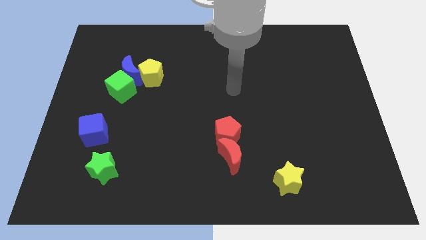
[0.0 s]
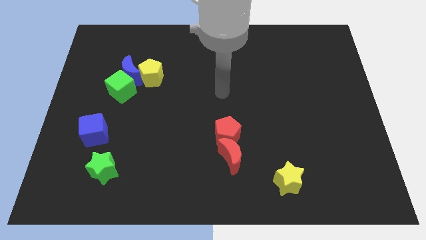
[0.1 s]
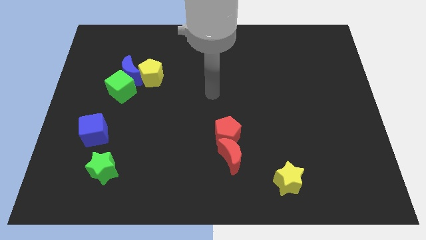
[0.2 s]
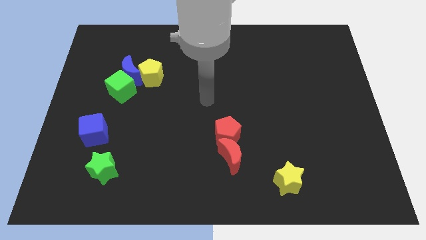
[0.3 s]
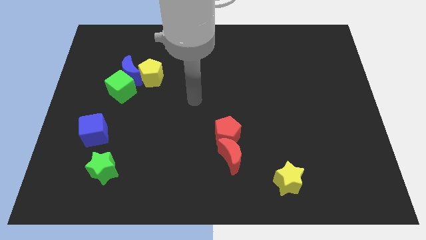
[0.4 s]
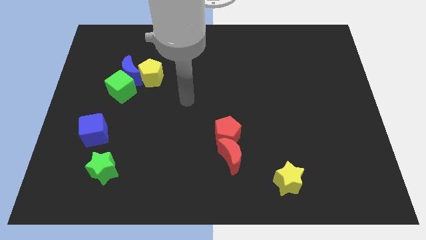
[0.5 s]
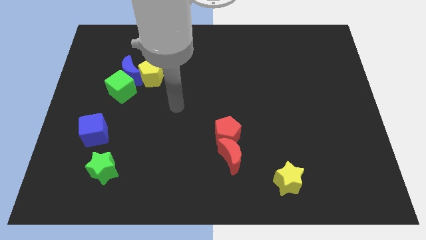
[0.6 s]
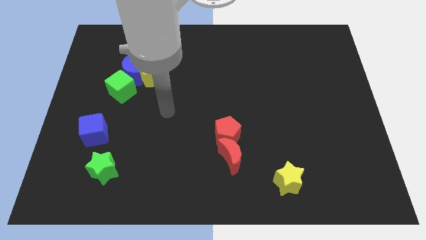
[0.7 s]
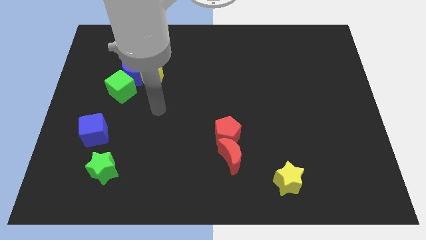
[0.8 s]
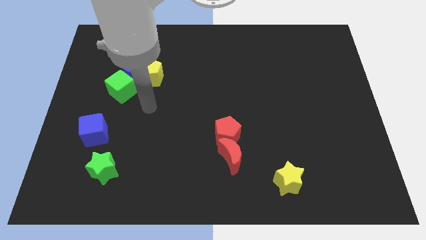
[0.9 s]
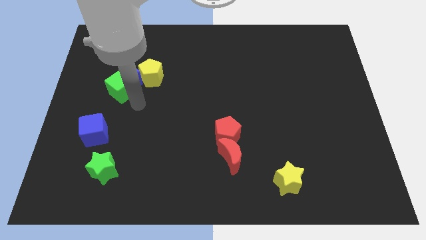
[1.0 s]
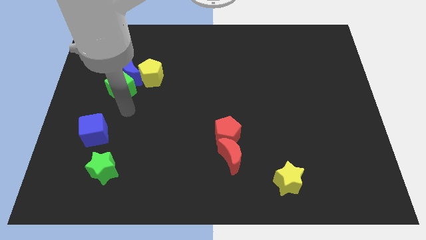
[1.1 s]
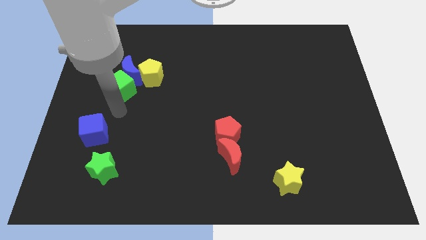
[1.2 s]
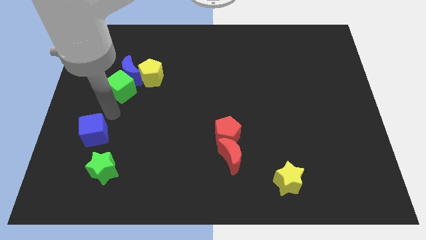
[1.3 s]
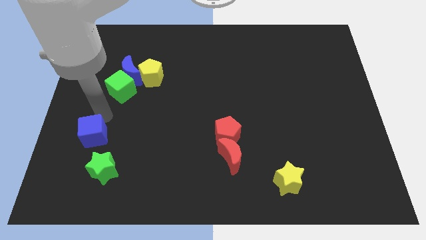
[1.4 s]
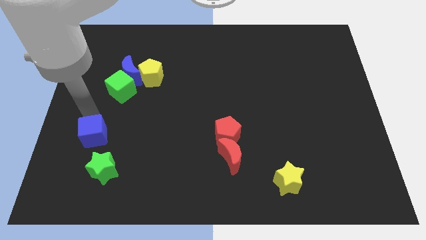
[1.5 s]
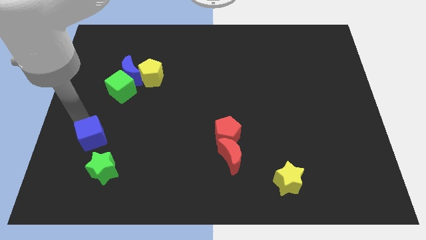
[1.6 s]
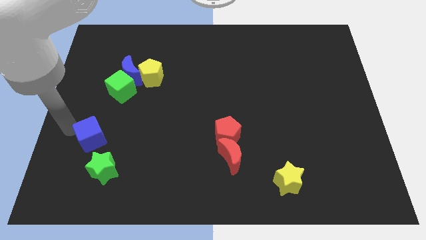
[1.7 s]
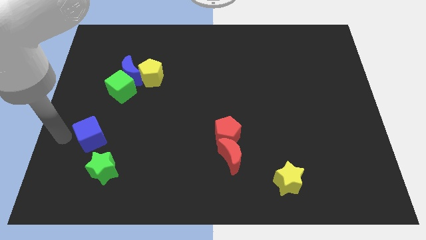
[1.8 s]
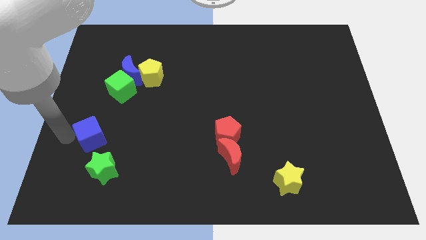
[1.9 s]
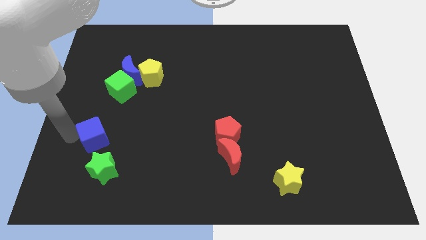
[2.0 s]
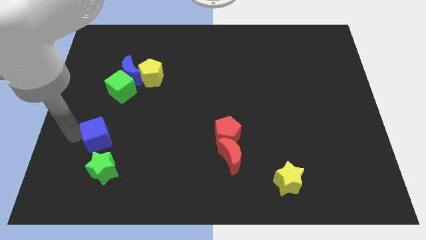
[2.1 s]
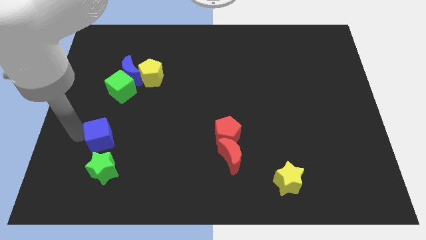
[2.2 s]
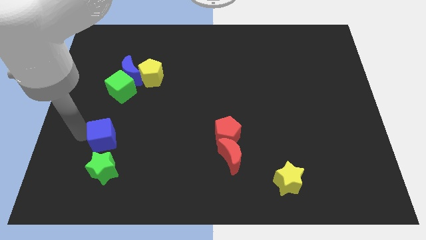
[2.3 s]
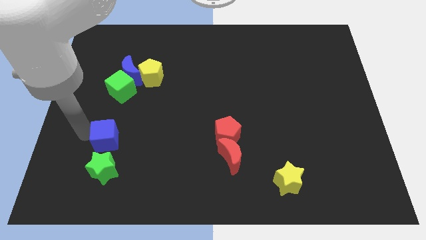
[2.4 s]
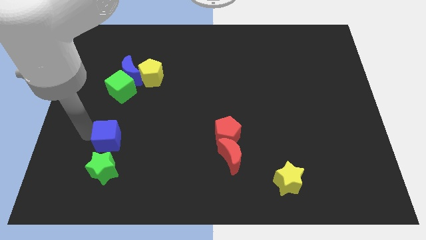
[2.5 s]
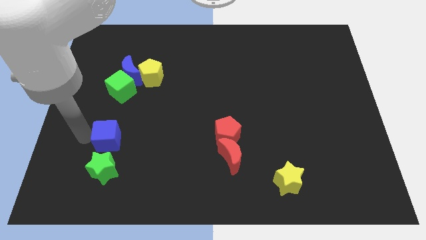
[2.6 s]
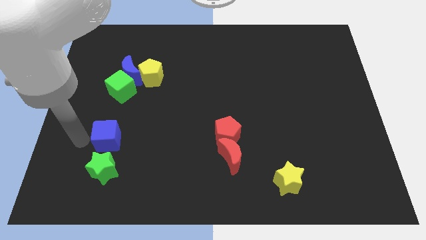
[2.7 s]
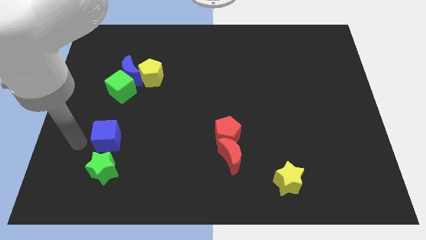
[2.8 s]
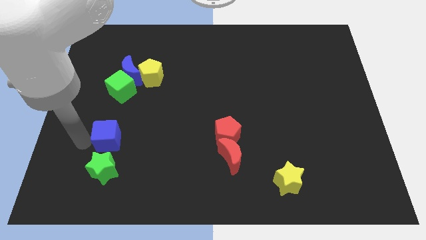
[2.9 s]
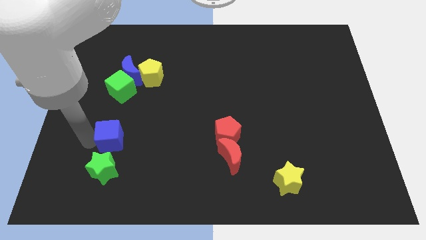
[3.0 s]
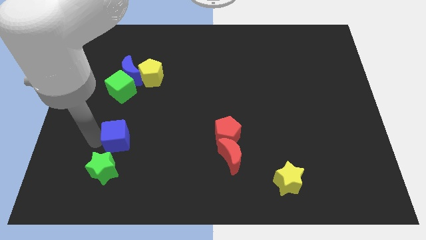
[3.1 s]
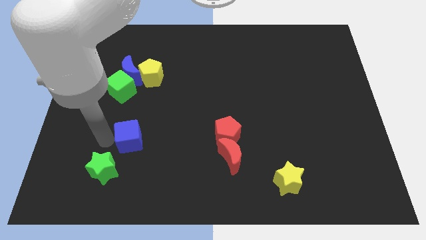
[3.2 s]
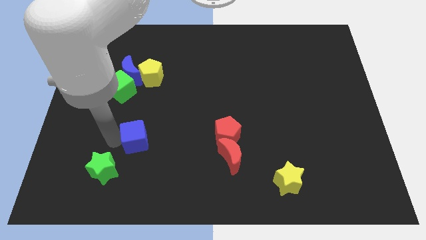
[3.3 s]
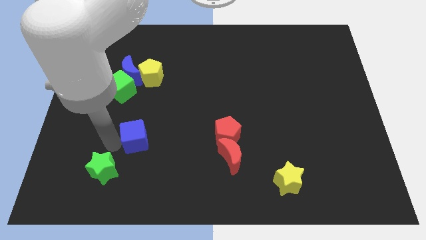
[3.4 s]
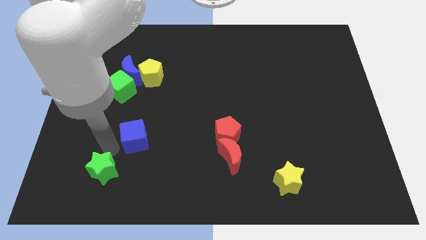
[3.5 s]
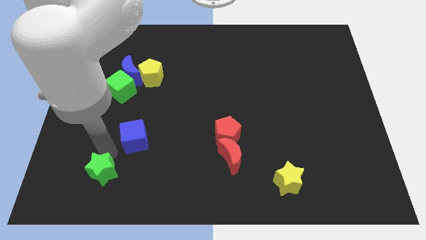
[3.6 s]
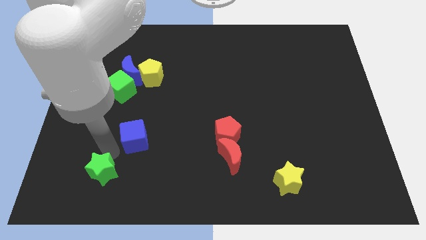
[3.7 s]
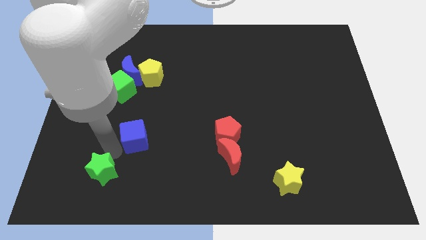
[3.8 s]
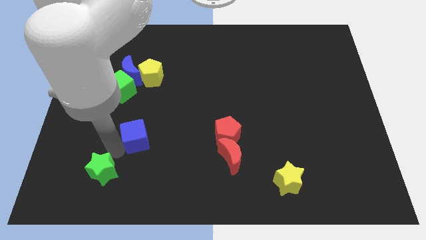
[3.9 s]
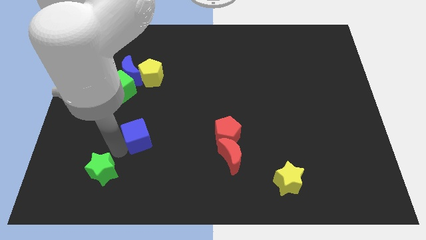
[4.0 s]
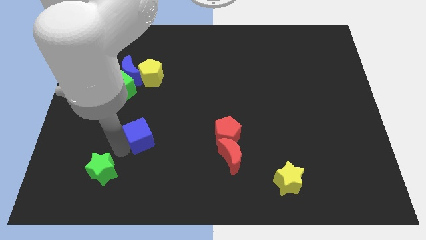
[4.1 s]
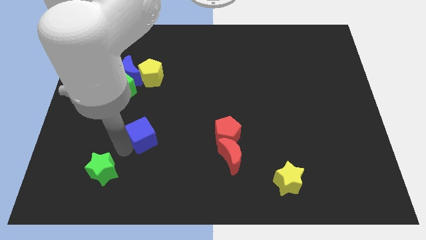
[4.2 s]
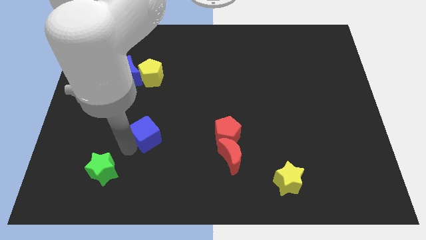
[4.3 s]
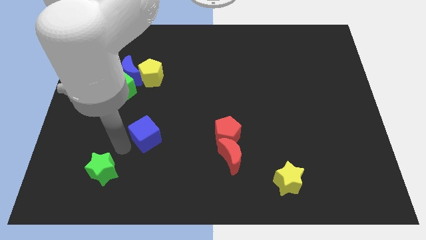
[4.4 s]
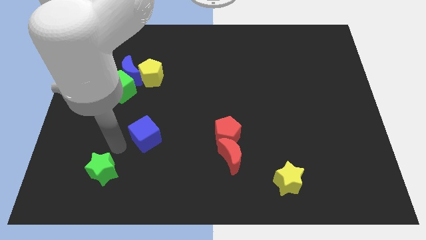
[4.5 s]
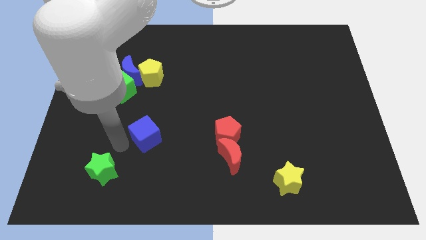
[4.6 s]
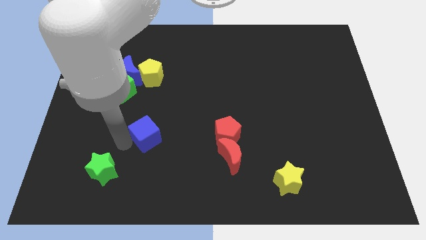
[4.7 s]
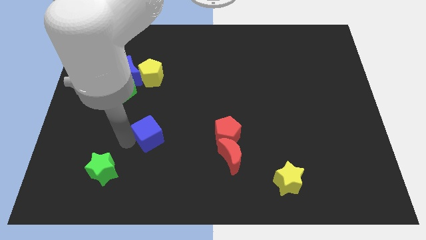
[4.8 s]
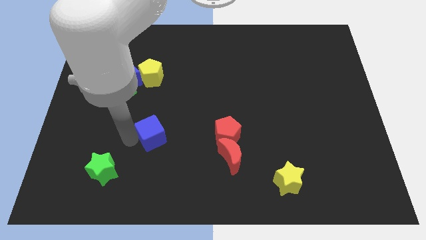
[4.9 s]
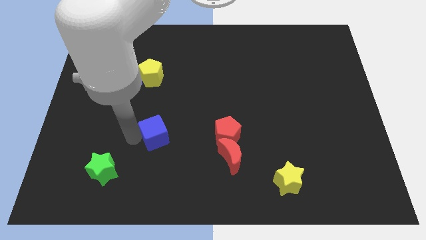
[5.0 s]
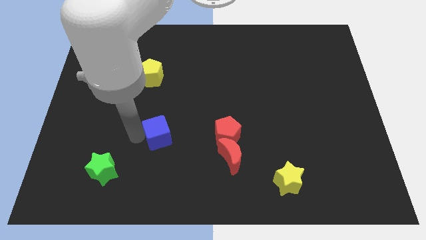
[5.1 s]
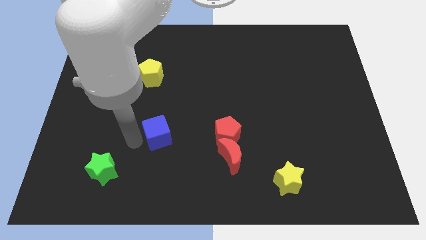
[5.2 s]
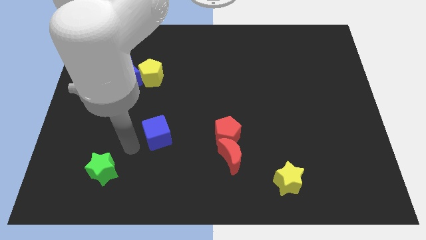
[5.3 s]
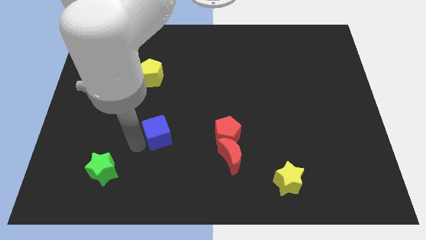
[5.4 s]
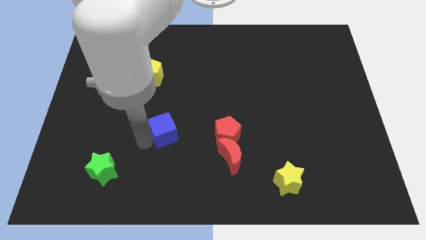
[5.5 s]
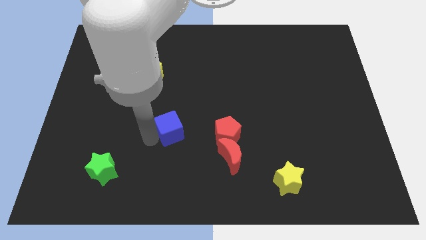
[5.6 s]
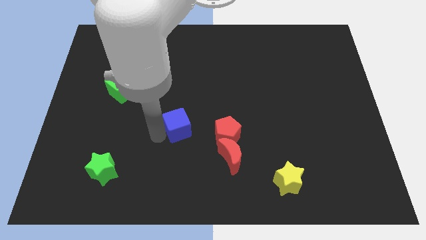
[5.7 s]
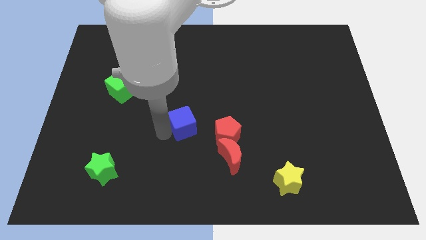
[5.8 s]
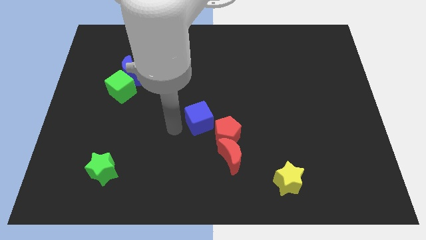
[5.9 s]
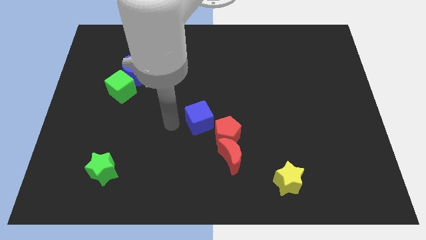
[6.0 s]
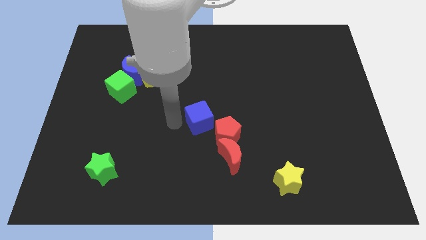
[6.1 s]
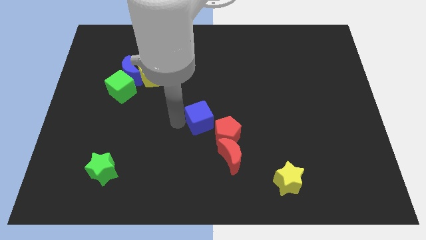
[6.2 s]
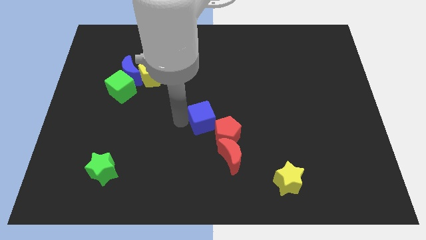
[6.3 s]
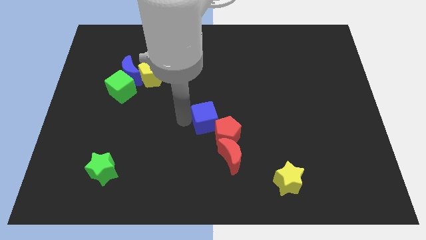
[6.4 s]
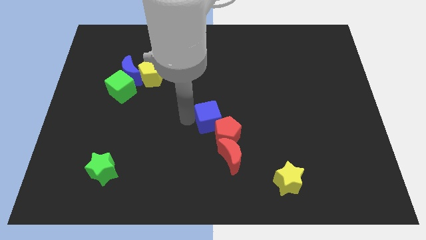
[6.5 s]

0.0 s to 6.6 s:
push the blue cube to the top of the red moon
